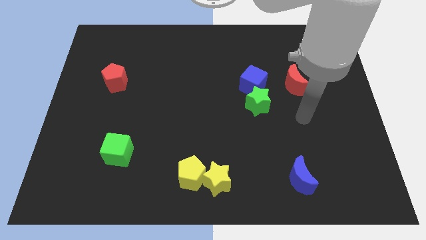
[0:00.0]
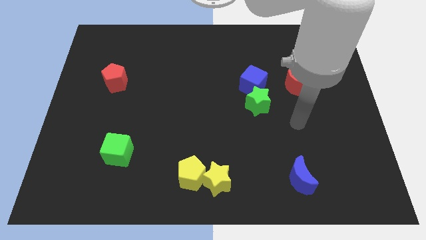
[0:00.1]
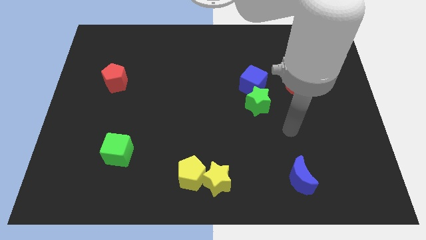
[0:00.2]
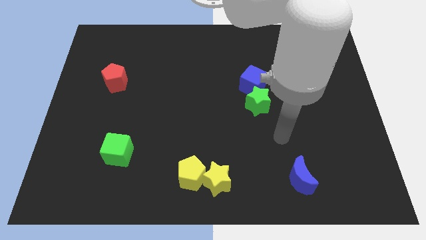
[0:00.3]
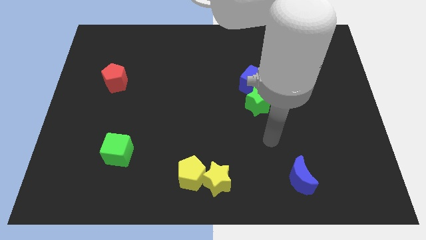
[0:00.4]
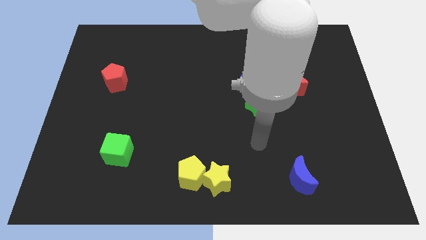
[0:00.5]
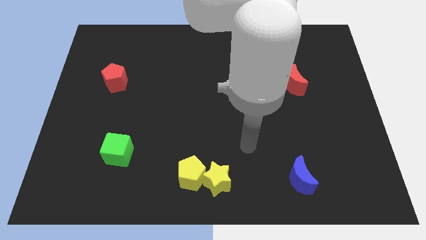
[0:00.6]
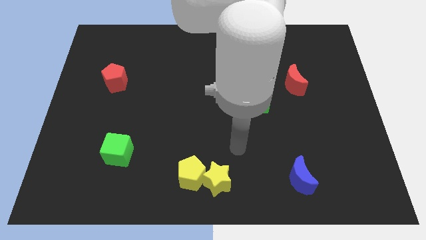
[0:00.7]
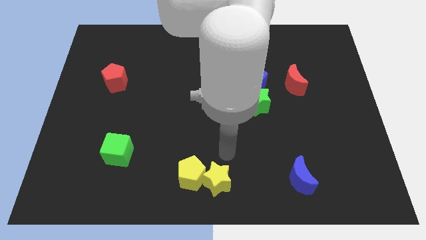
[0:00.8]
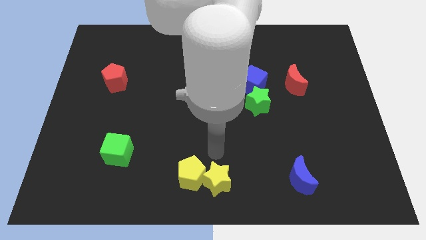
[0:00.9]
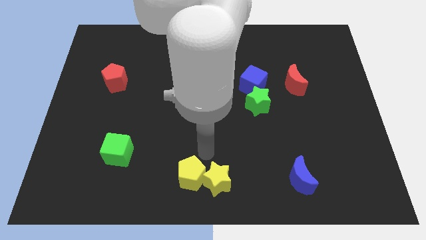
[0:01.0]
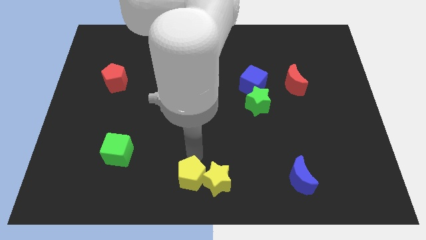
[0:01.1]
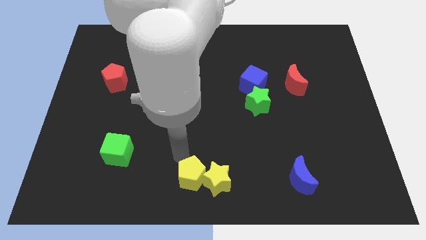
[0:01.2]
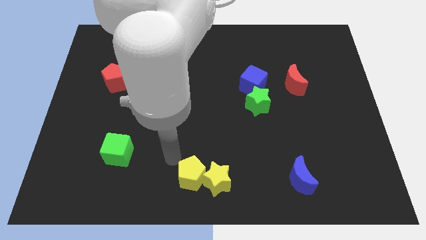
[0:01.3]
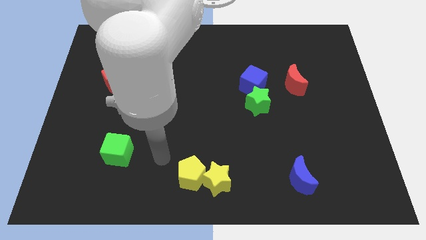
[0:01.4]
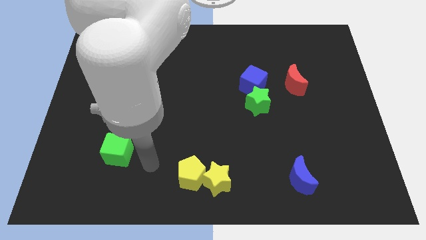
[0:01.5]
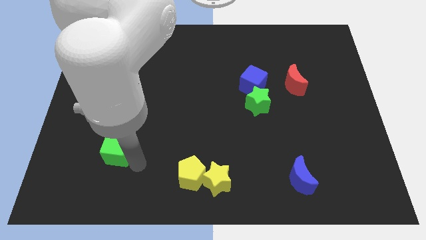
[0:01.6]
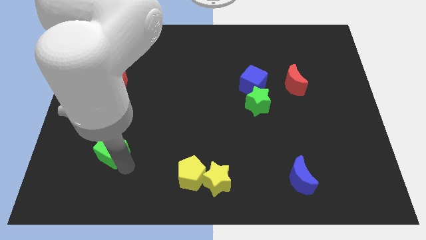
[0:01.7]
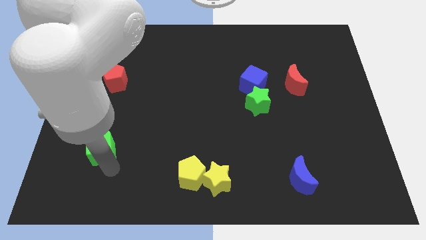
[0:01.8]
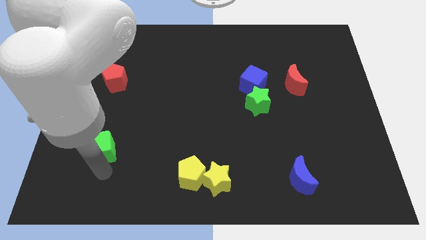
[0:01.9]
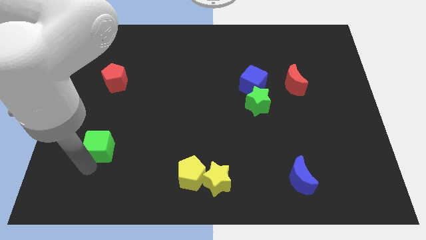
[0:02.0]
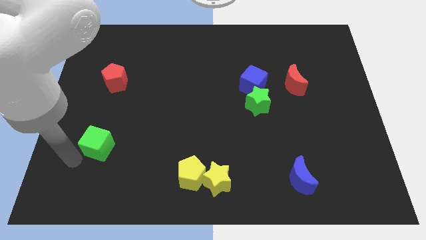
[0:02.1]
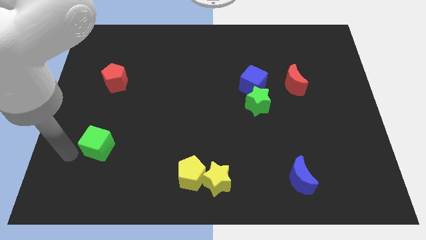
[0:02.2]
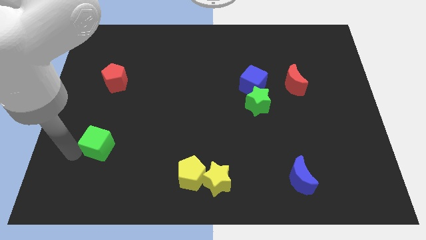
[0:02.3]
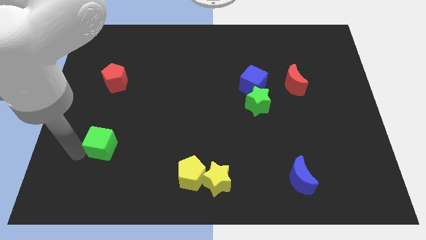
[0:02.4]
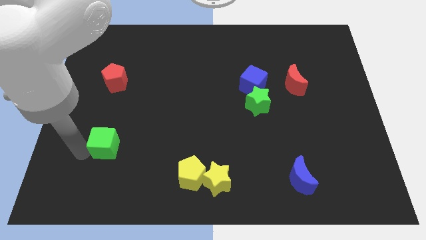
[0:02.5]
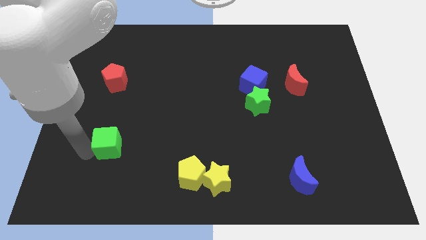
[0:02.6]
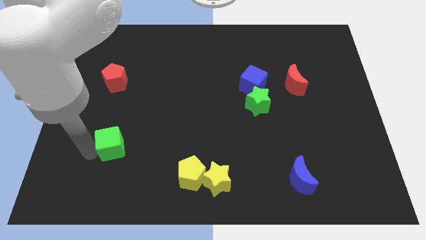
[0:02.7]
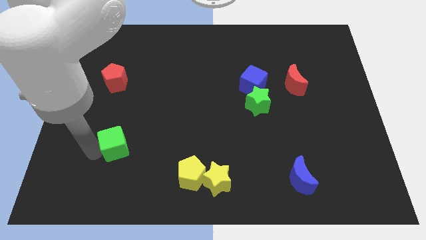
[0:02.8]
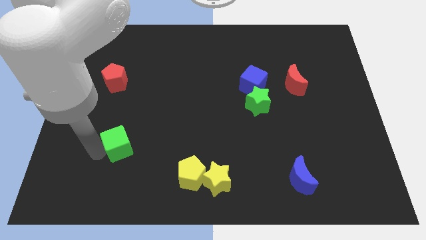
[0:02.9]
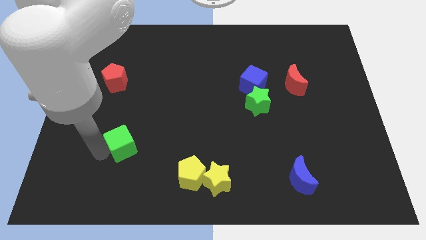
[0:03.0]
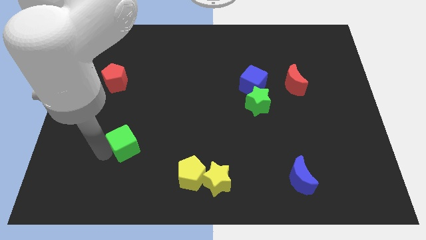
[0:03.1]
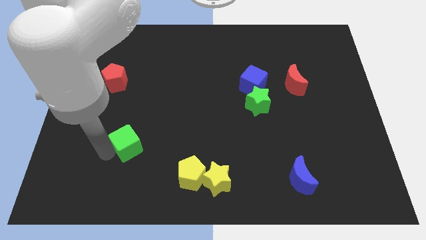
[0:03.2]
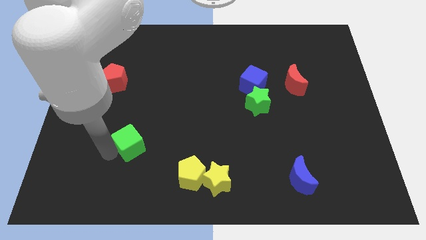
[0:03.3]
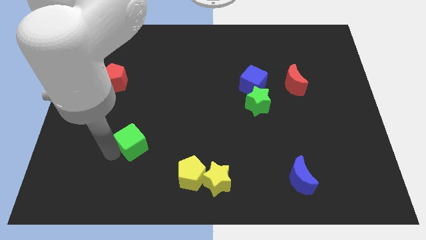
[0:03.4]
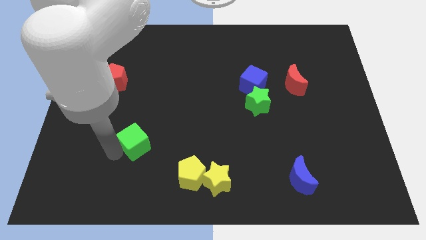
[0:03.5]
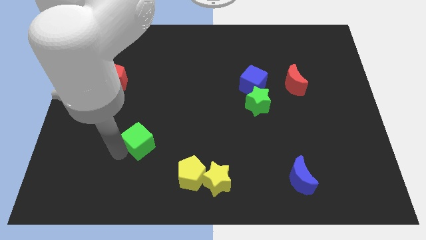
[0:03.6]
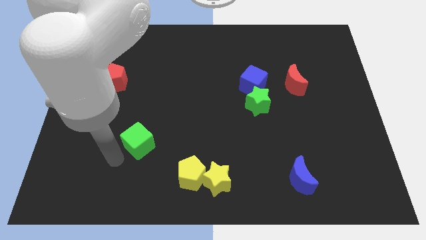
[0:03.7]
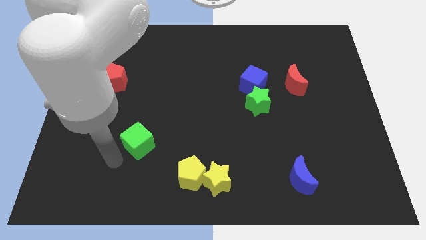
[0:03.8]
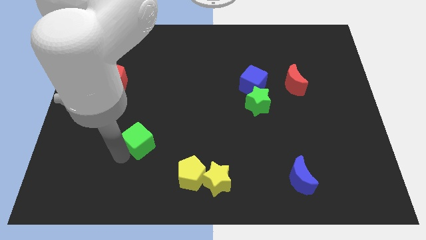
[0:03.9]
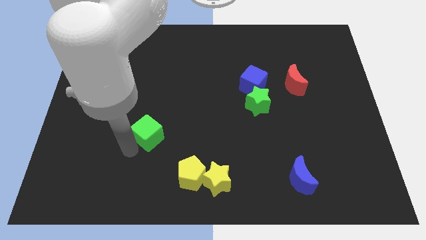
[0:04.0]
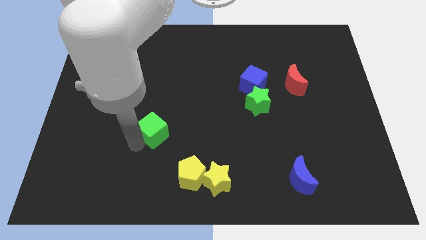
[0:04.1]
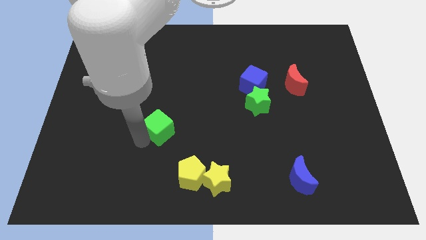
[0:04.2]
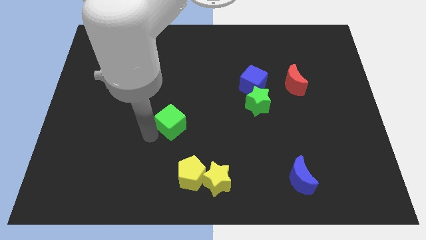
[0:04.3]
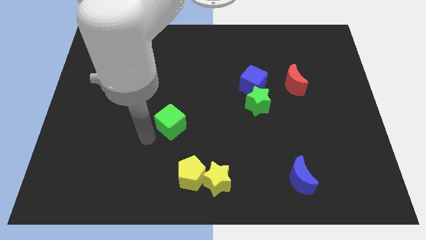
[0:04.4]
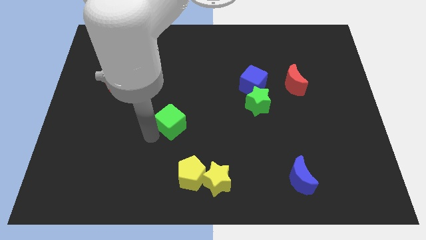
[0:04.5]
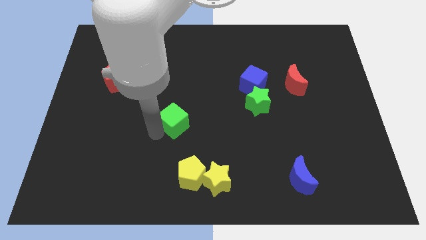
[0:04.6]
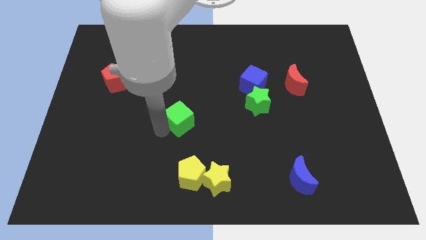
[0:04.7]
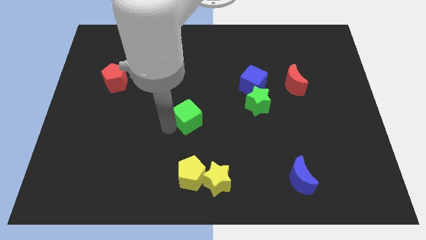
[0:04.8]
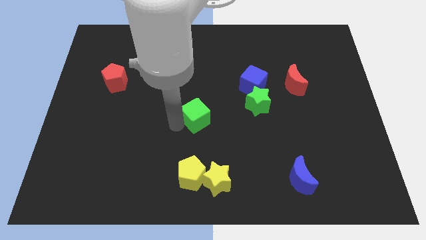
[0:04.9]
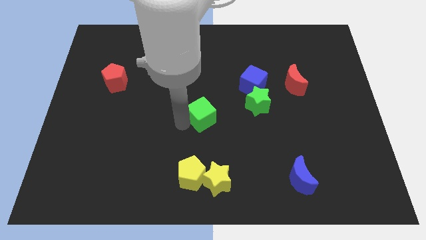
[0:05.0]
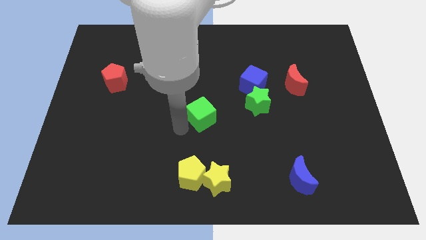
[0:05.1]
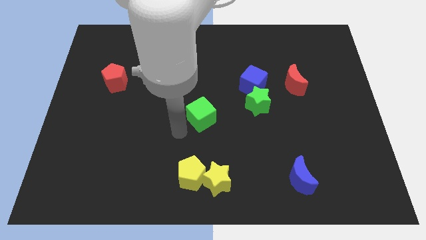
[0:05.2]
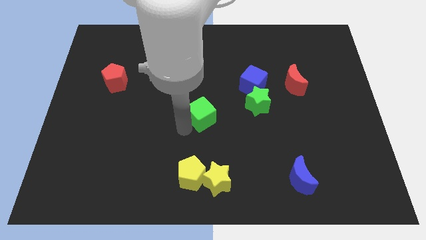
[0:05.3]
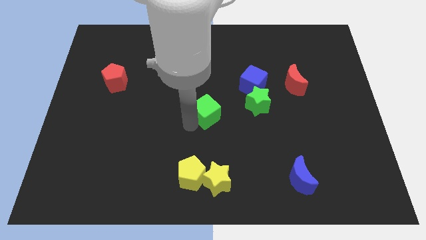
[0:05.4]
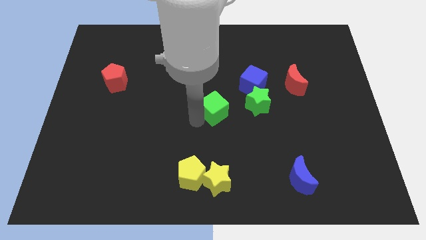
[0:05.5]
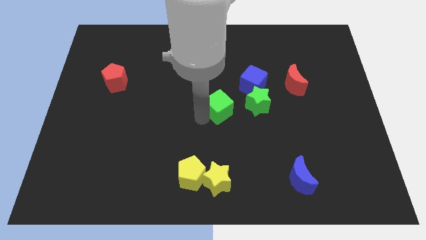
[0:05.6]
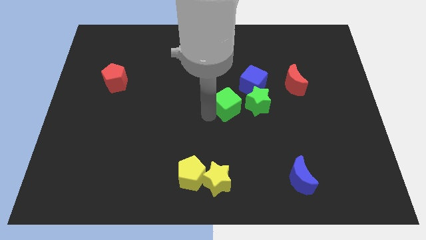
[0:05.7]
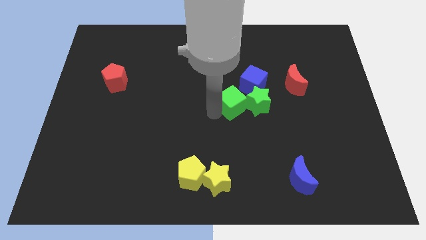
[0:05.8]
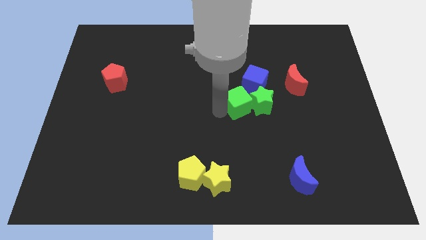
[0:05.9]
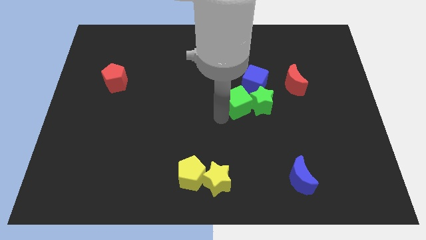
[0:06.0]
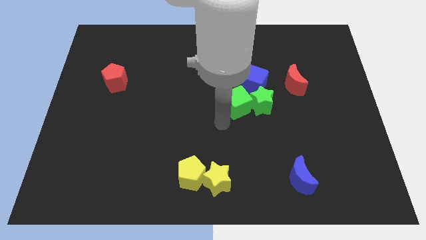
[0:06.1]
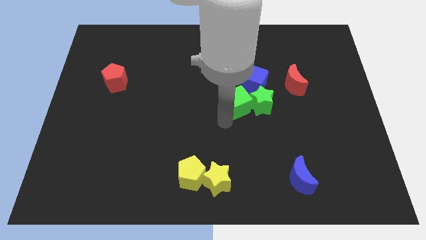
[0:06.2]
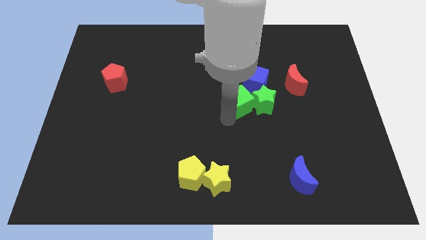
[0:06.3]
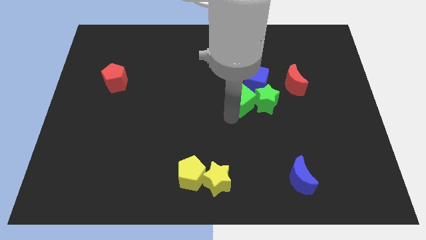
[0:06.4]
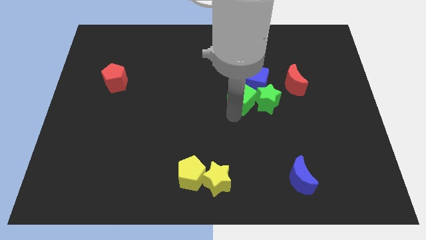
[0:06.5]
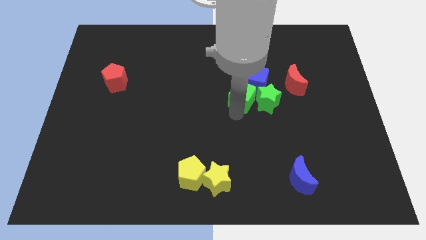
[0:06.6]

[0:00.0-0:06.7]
put the green cube next to the blue cube

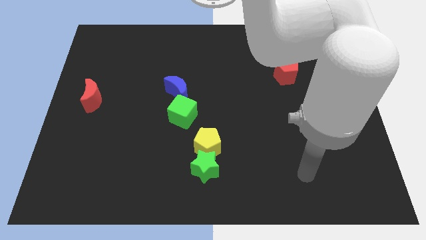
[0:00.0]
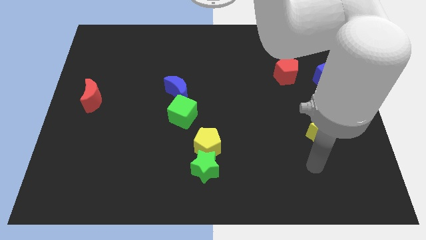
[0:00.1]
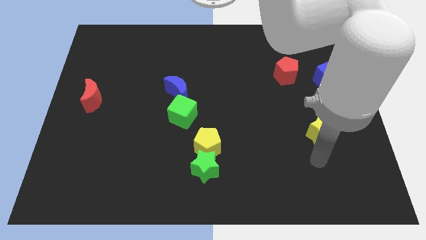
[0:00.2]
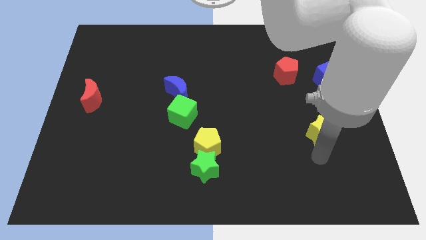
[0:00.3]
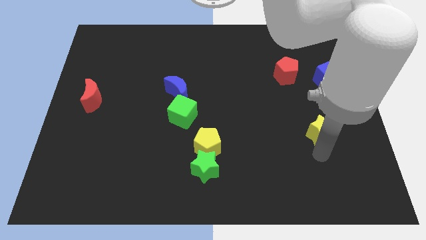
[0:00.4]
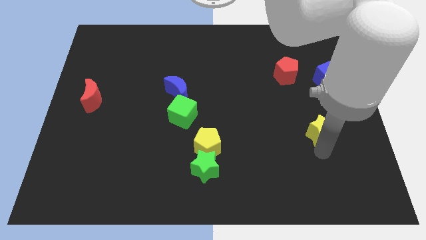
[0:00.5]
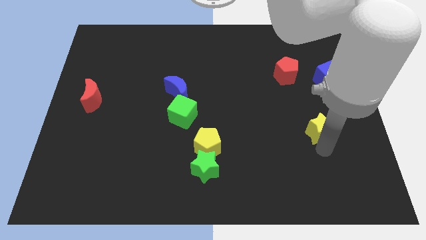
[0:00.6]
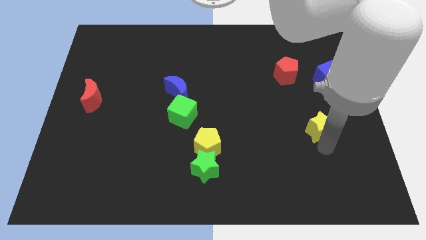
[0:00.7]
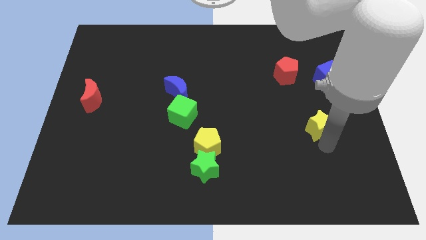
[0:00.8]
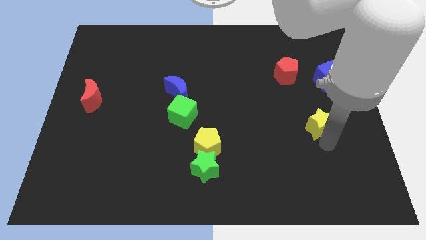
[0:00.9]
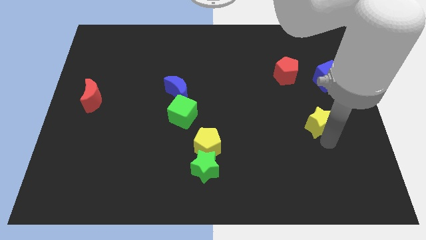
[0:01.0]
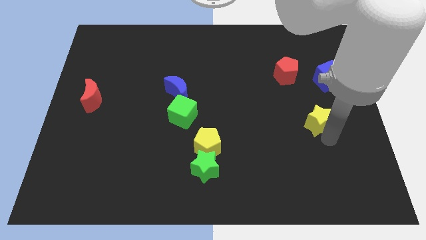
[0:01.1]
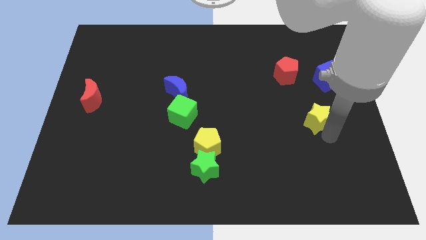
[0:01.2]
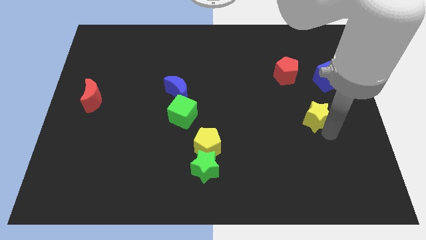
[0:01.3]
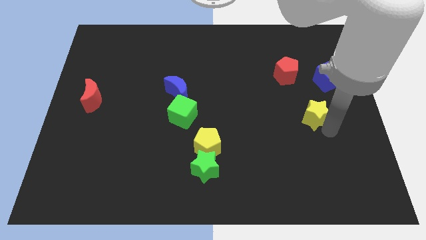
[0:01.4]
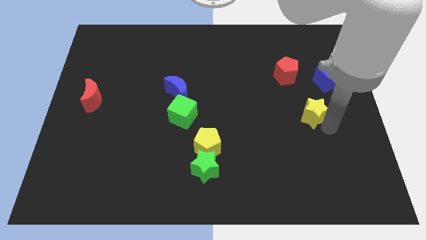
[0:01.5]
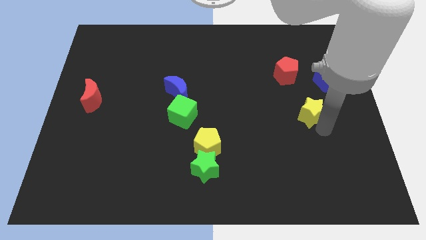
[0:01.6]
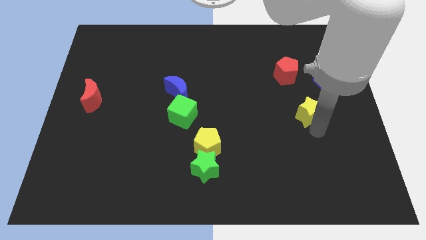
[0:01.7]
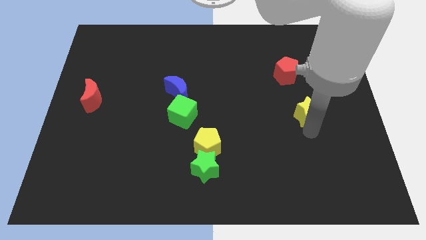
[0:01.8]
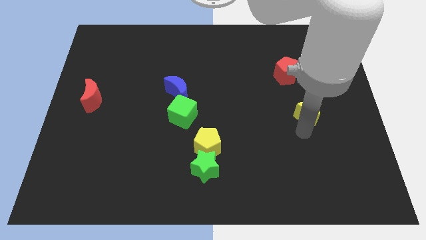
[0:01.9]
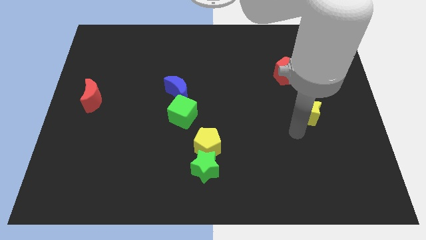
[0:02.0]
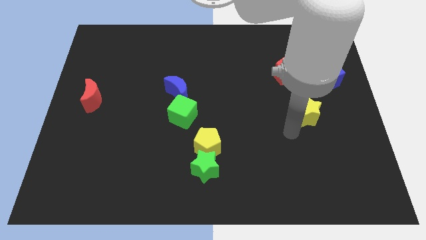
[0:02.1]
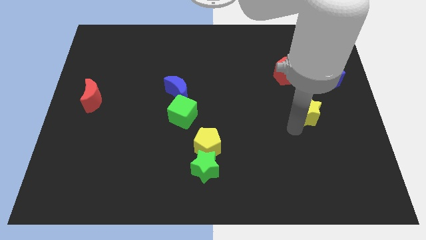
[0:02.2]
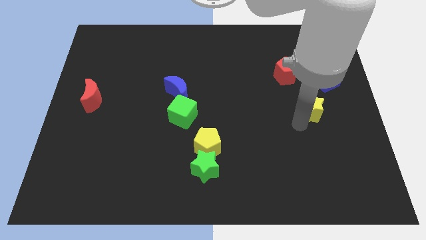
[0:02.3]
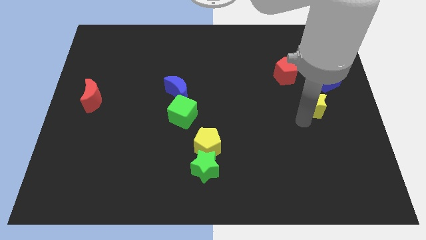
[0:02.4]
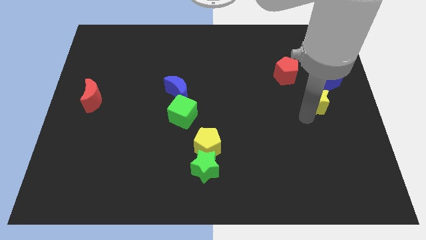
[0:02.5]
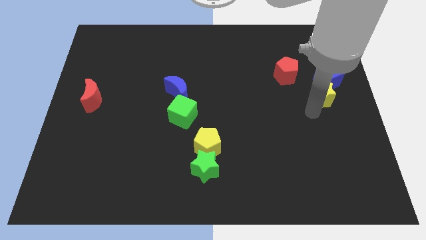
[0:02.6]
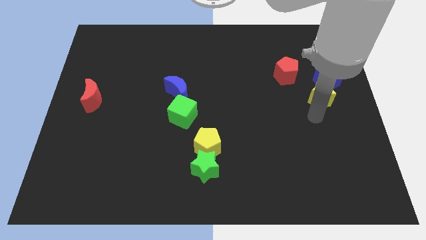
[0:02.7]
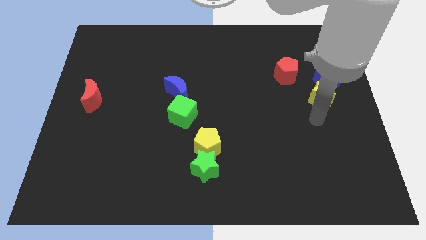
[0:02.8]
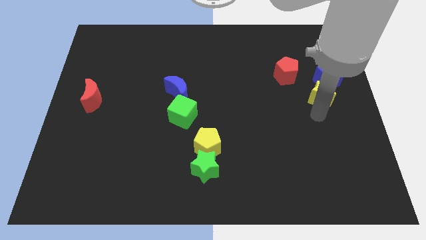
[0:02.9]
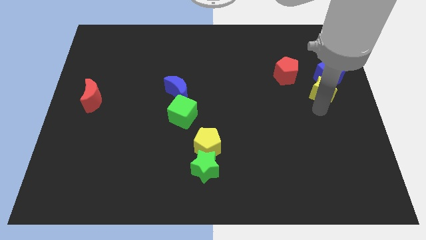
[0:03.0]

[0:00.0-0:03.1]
put the yellow star close to the blue cube
